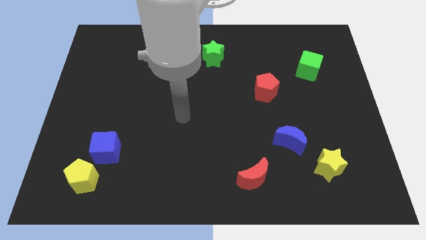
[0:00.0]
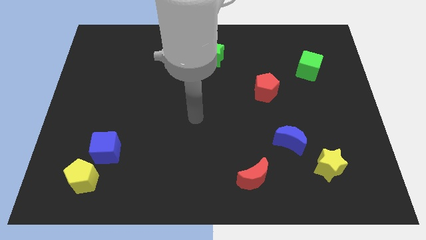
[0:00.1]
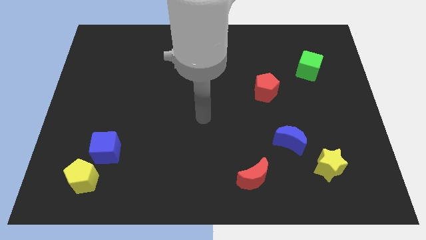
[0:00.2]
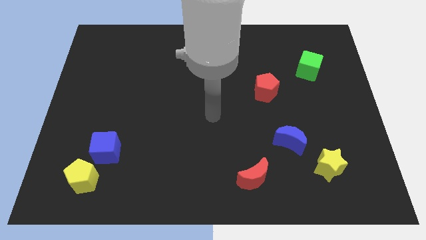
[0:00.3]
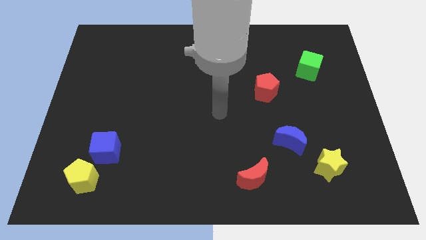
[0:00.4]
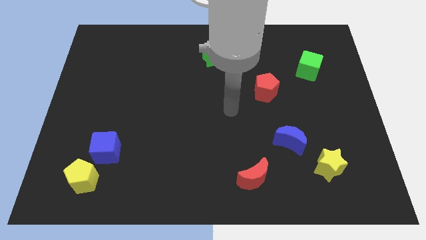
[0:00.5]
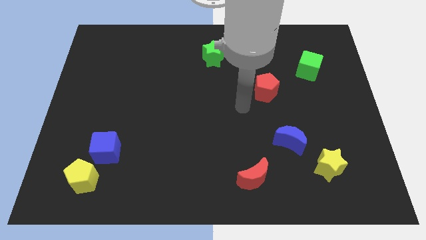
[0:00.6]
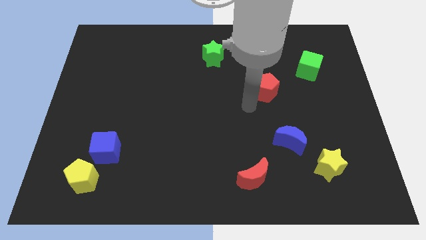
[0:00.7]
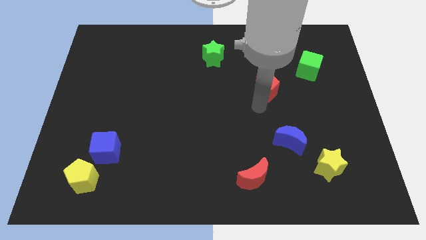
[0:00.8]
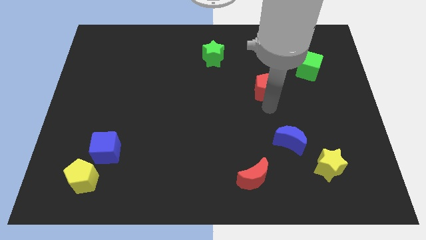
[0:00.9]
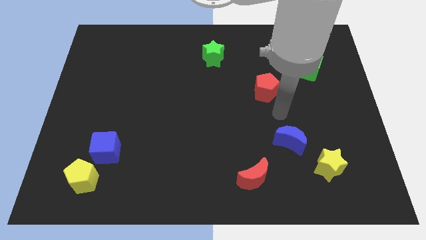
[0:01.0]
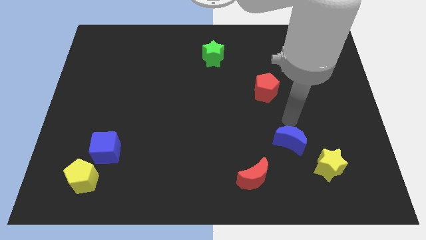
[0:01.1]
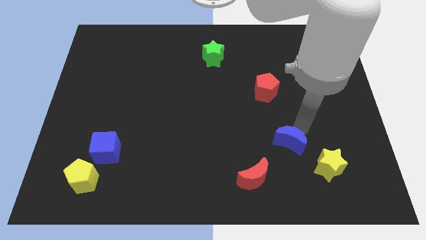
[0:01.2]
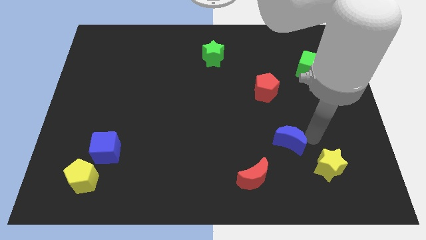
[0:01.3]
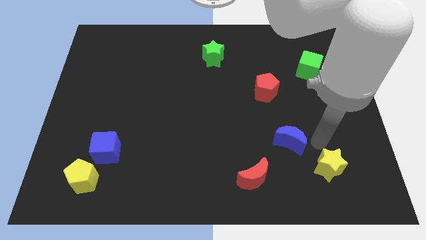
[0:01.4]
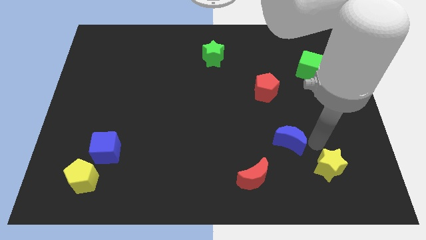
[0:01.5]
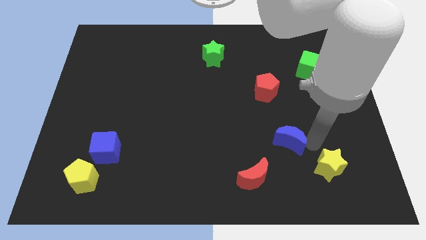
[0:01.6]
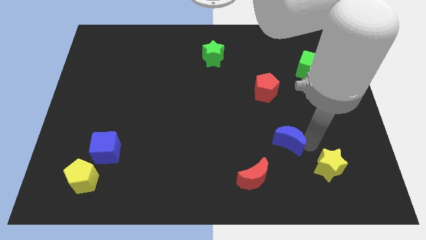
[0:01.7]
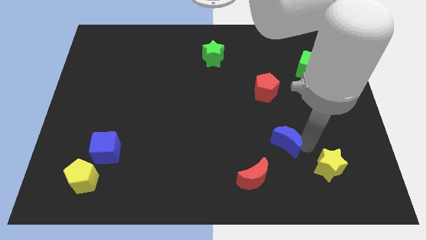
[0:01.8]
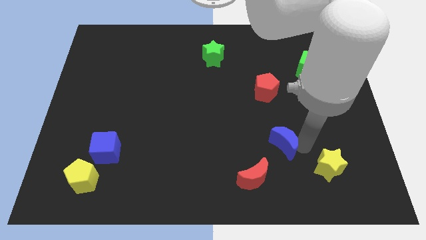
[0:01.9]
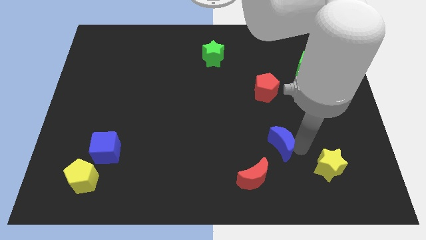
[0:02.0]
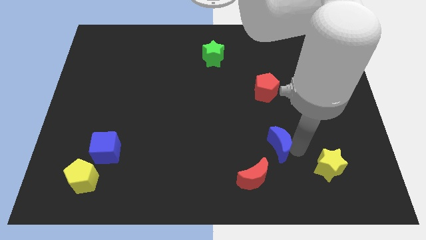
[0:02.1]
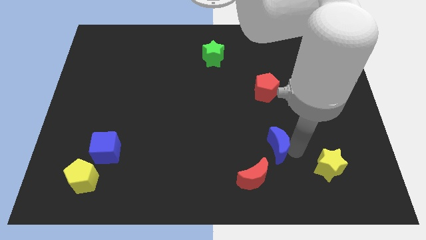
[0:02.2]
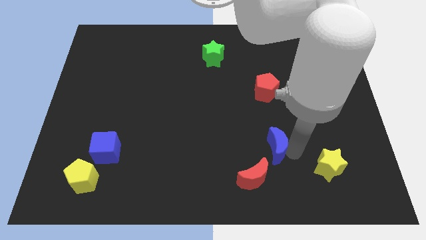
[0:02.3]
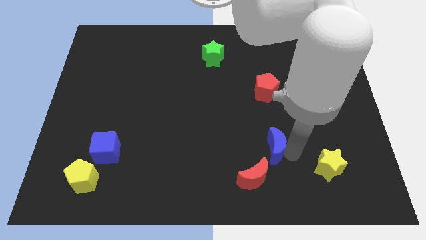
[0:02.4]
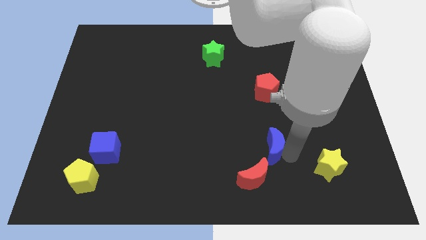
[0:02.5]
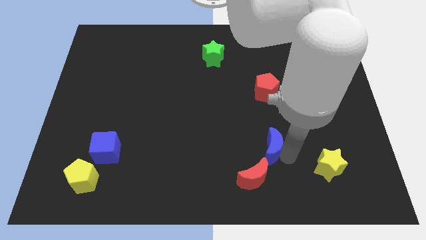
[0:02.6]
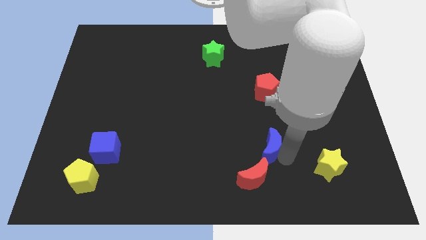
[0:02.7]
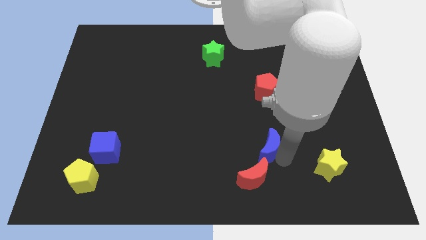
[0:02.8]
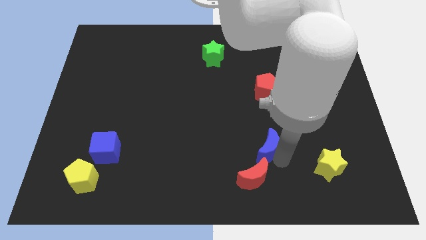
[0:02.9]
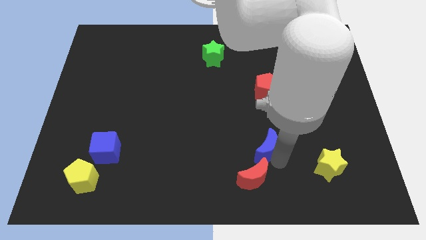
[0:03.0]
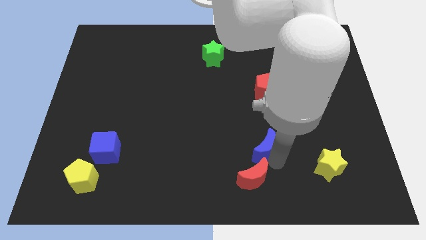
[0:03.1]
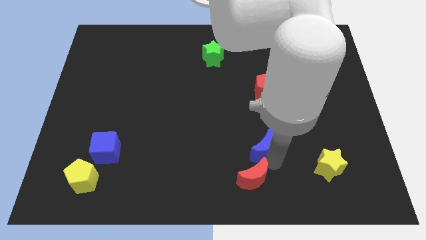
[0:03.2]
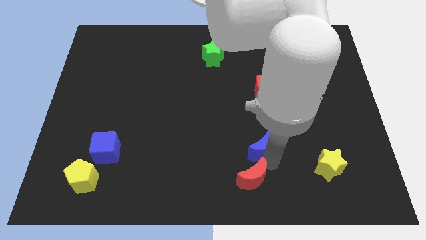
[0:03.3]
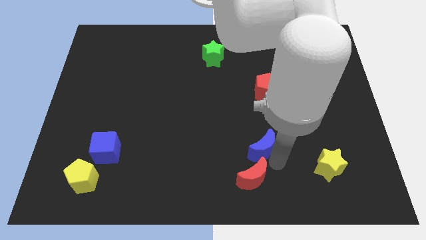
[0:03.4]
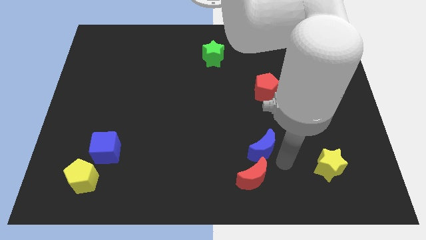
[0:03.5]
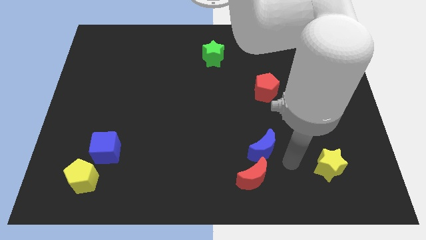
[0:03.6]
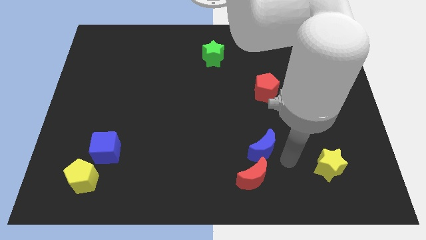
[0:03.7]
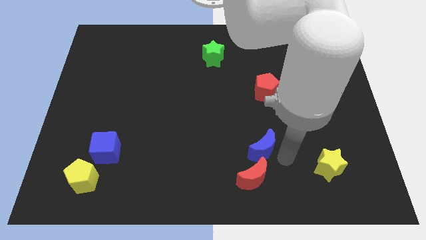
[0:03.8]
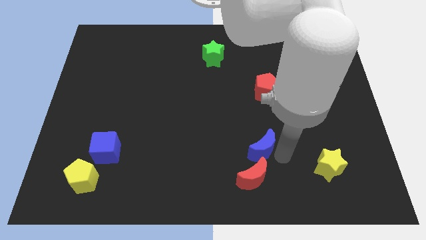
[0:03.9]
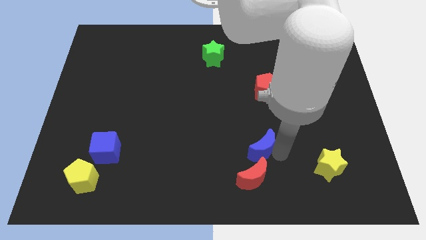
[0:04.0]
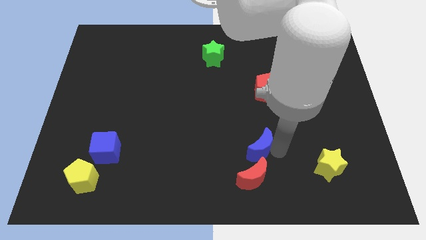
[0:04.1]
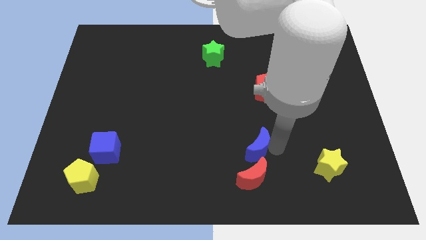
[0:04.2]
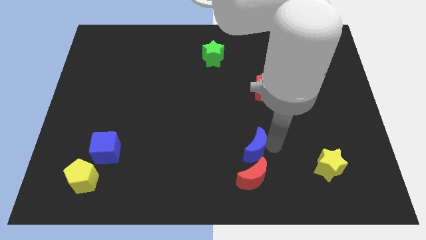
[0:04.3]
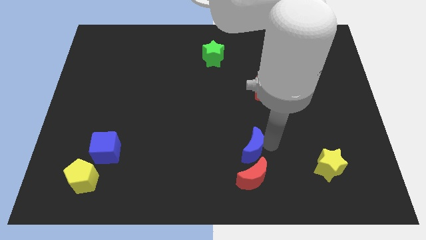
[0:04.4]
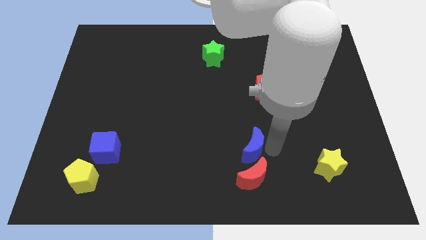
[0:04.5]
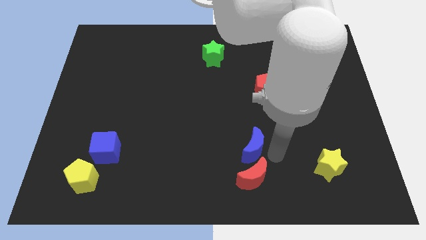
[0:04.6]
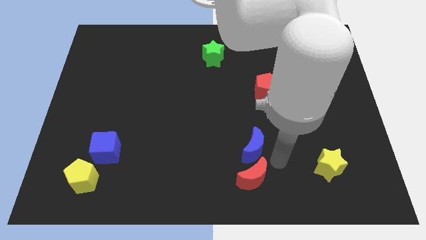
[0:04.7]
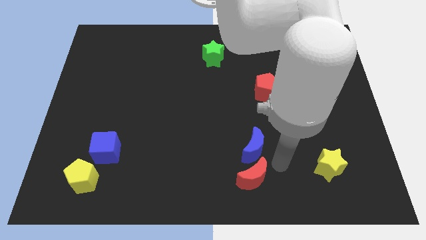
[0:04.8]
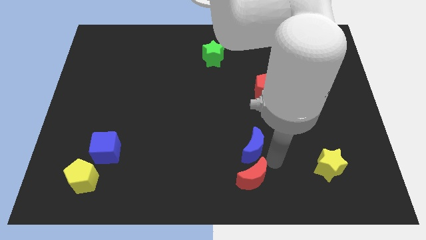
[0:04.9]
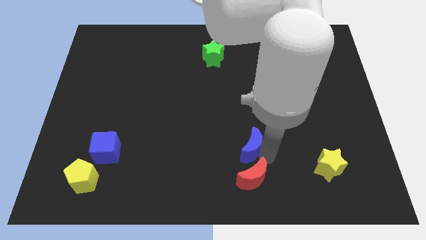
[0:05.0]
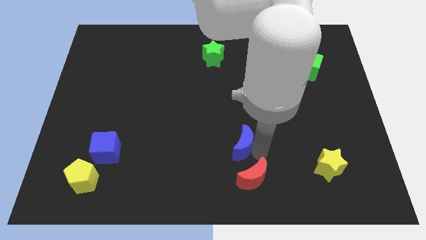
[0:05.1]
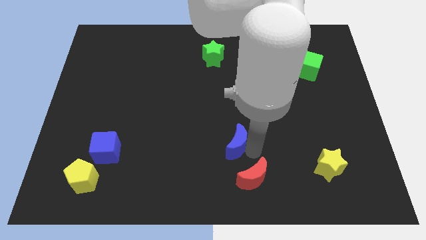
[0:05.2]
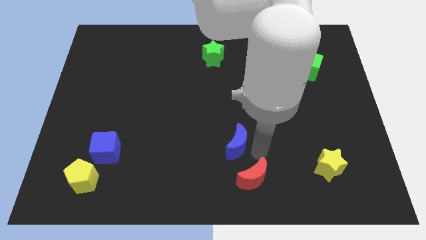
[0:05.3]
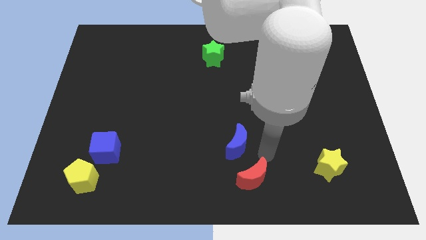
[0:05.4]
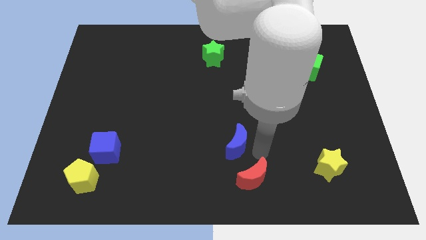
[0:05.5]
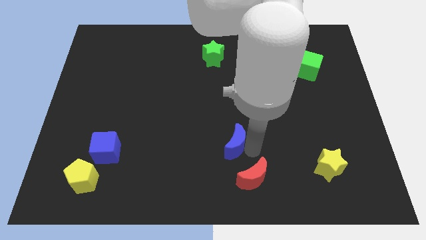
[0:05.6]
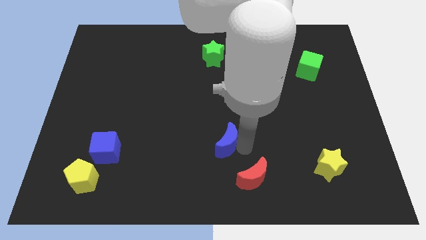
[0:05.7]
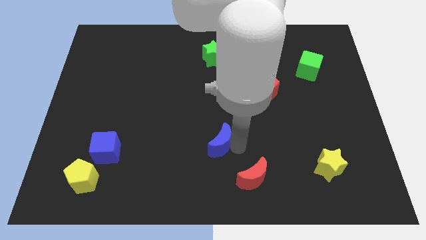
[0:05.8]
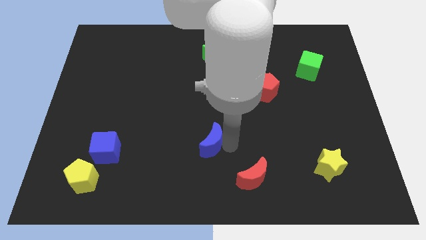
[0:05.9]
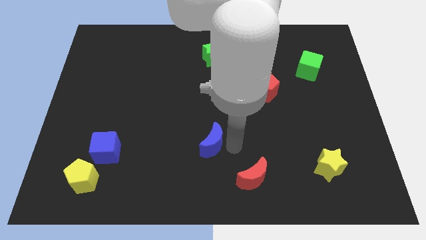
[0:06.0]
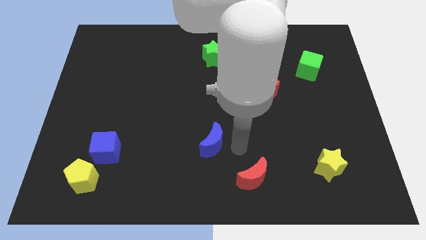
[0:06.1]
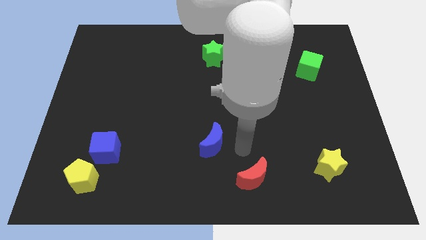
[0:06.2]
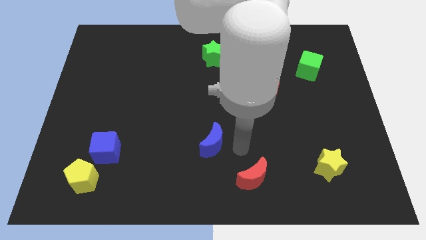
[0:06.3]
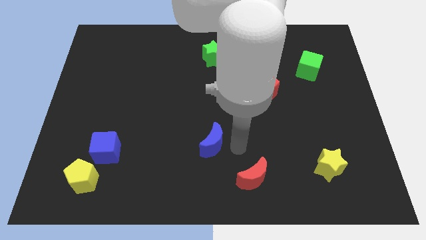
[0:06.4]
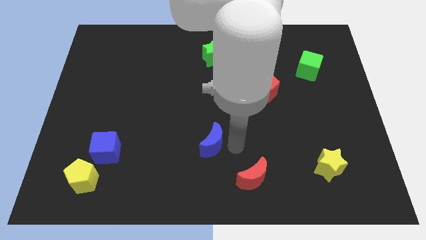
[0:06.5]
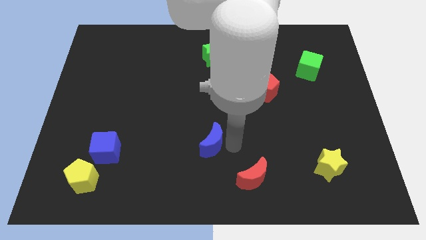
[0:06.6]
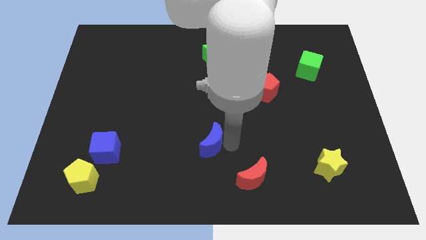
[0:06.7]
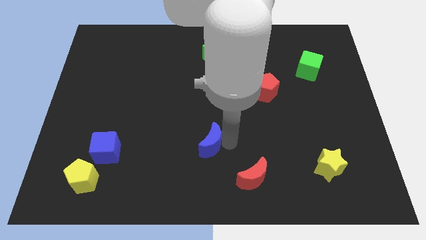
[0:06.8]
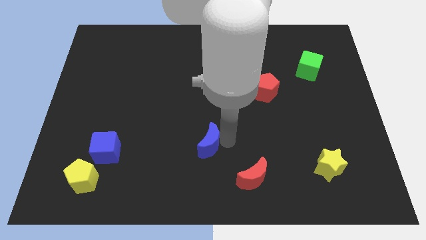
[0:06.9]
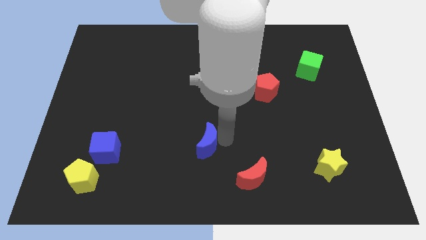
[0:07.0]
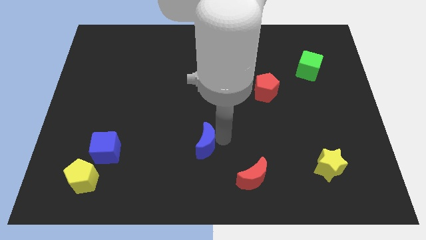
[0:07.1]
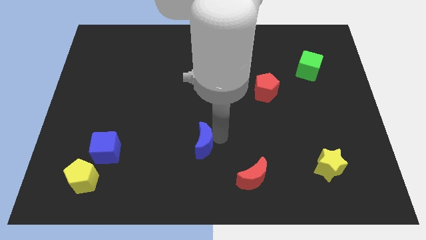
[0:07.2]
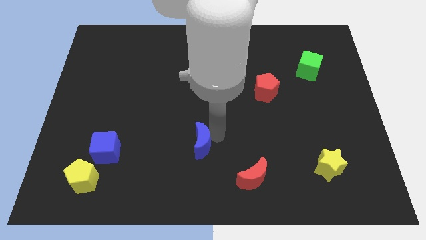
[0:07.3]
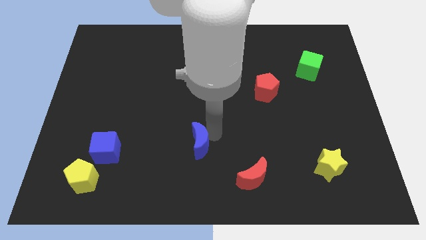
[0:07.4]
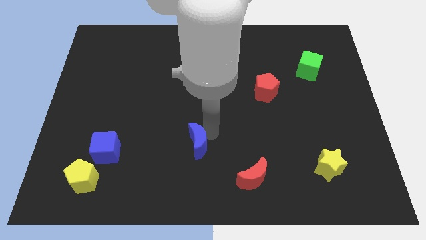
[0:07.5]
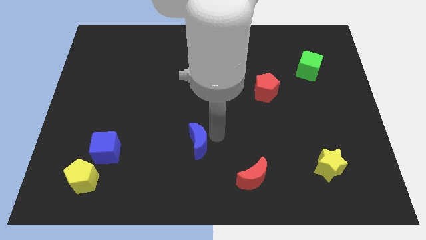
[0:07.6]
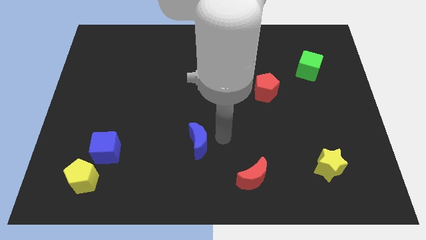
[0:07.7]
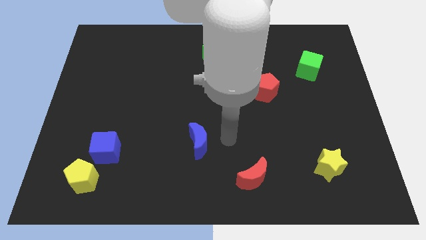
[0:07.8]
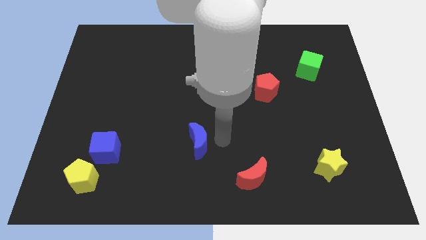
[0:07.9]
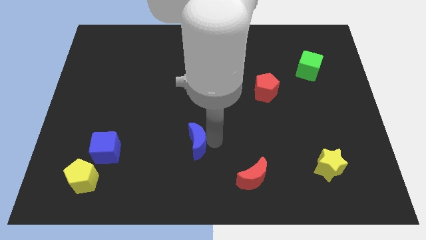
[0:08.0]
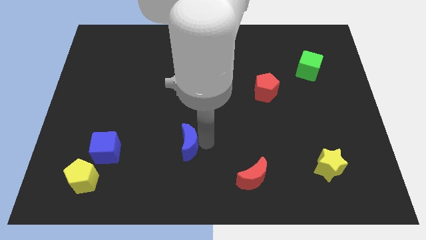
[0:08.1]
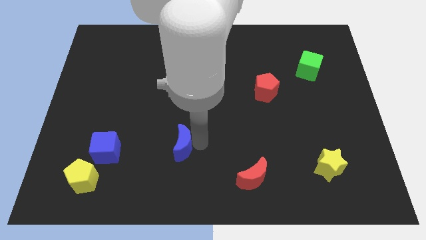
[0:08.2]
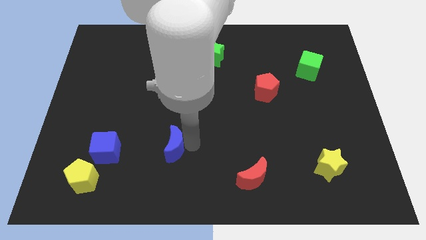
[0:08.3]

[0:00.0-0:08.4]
move the blue moon to the right of the blue cube
